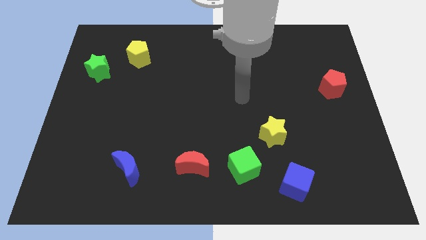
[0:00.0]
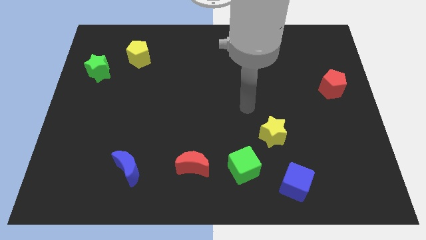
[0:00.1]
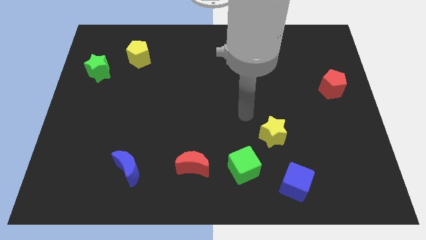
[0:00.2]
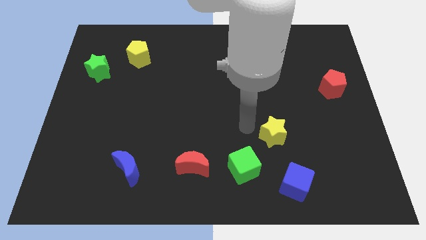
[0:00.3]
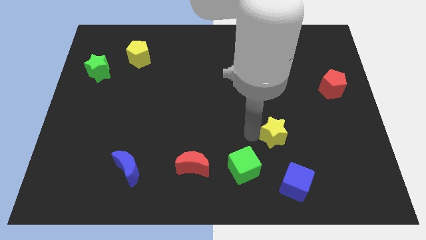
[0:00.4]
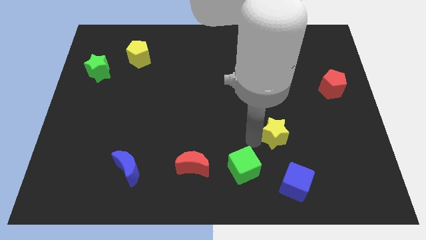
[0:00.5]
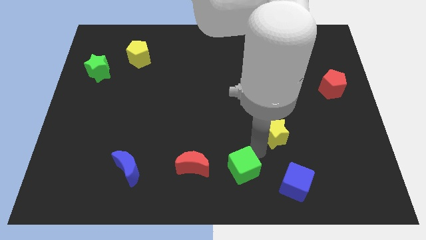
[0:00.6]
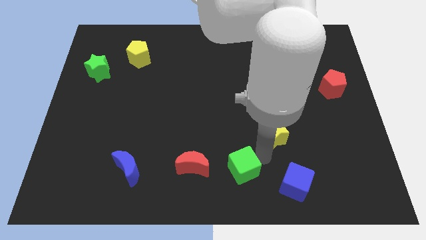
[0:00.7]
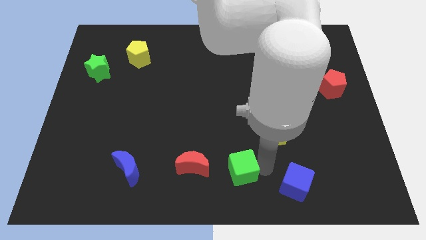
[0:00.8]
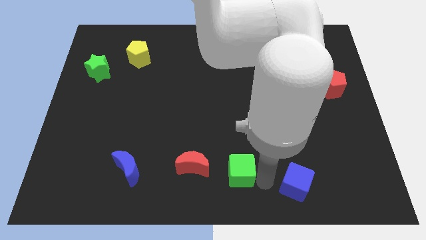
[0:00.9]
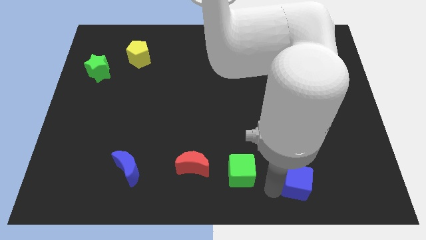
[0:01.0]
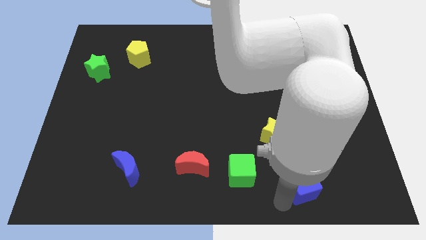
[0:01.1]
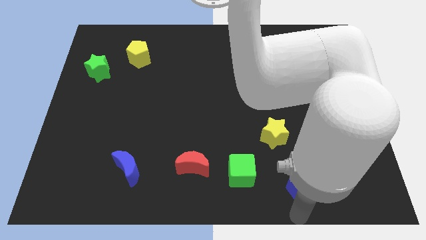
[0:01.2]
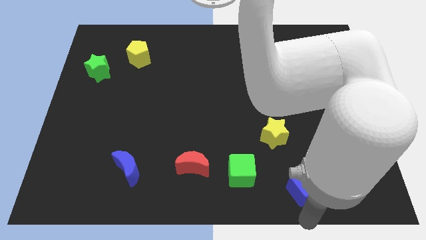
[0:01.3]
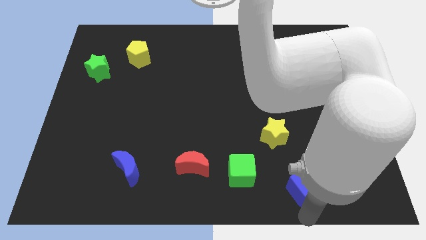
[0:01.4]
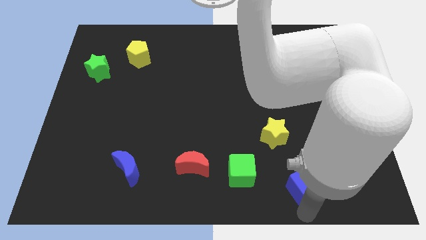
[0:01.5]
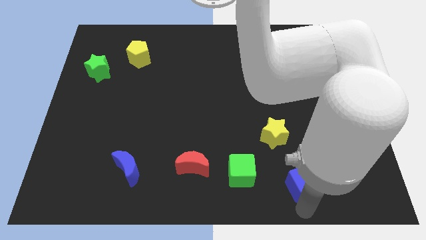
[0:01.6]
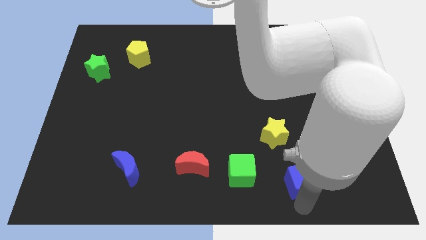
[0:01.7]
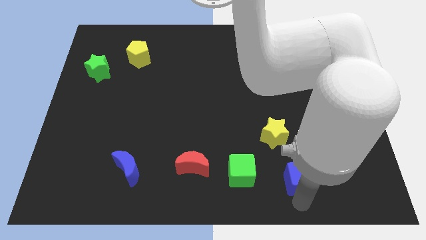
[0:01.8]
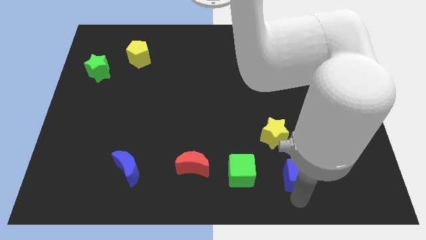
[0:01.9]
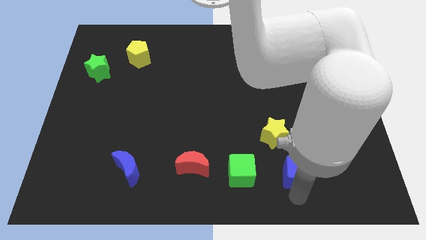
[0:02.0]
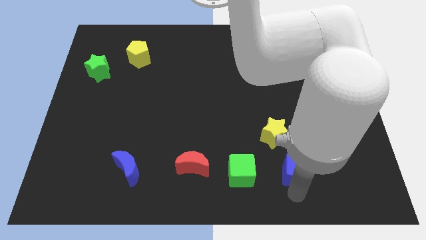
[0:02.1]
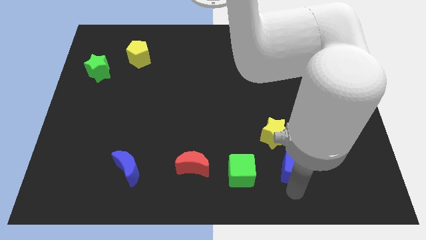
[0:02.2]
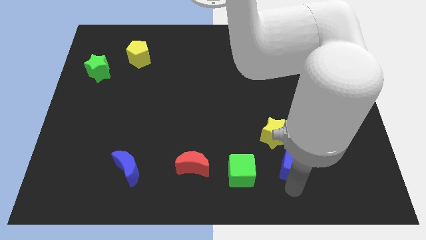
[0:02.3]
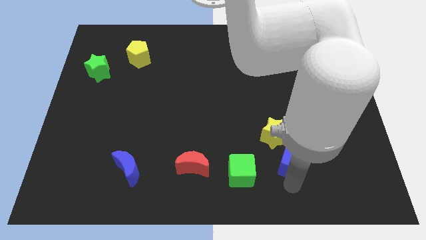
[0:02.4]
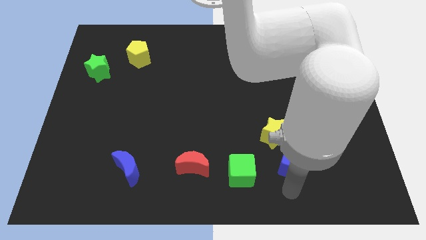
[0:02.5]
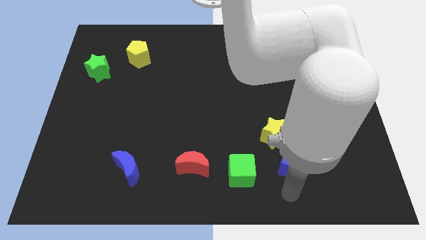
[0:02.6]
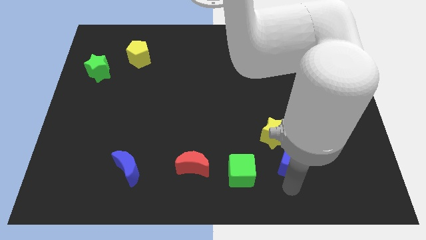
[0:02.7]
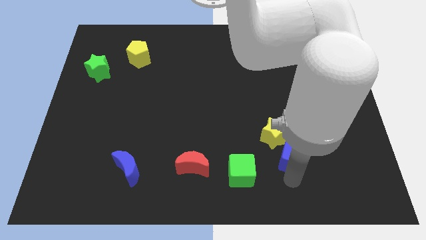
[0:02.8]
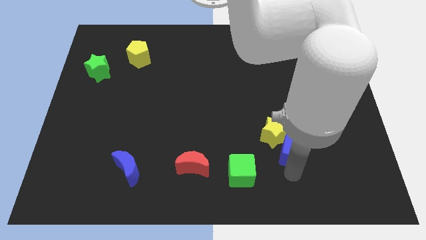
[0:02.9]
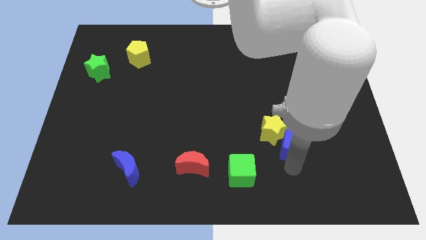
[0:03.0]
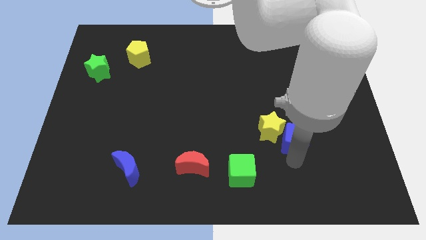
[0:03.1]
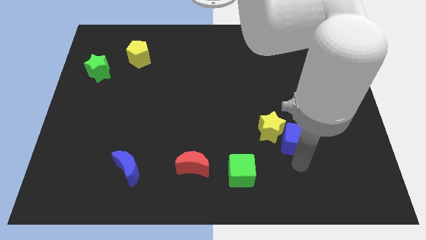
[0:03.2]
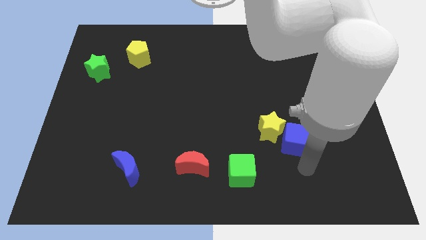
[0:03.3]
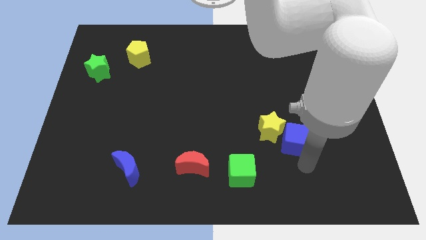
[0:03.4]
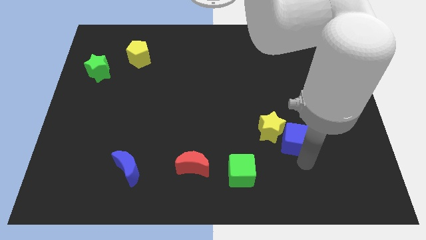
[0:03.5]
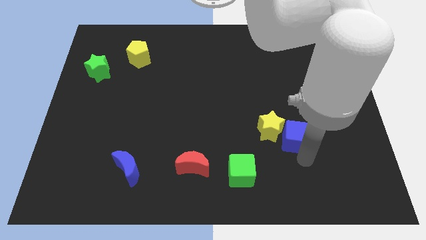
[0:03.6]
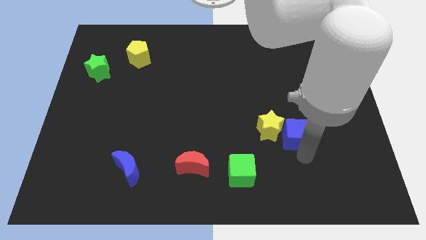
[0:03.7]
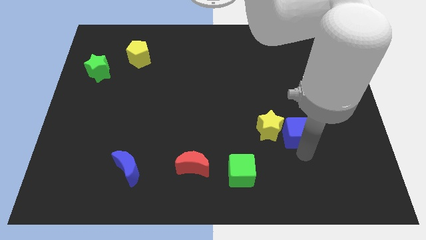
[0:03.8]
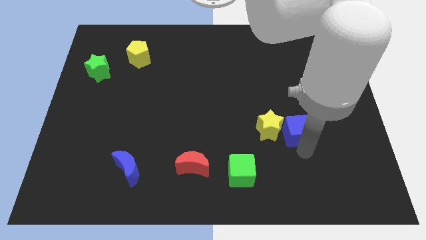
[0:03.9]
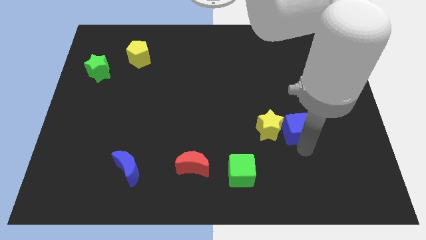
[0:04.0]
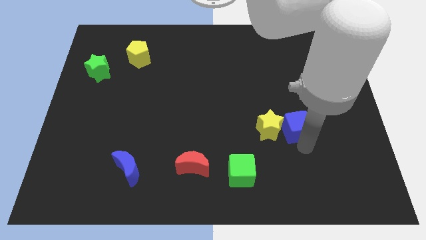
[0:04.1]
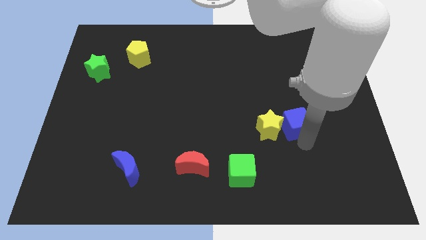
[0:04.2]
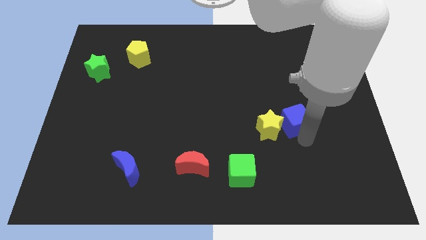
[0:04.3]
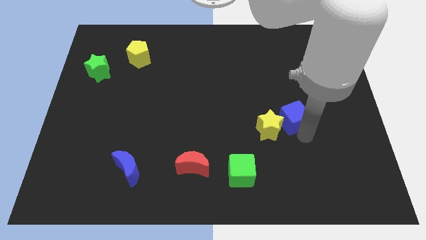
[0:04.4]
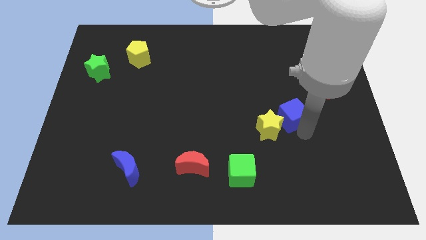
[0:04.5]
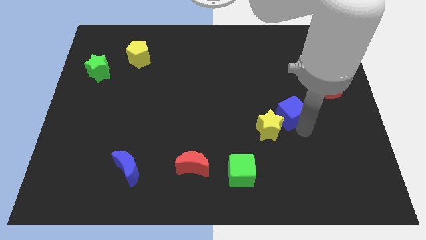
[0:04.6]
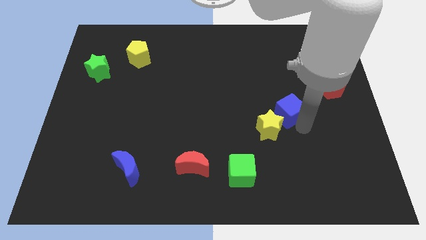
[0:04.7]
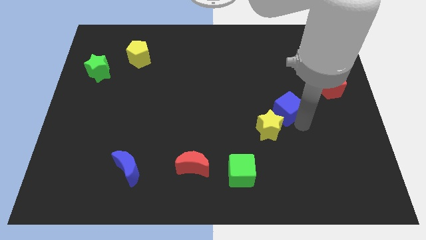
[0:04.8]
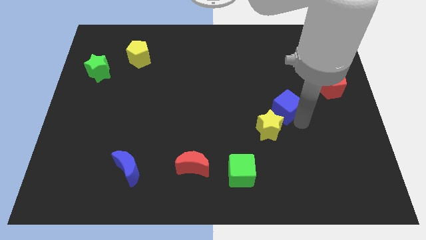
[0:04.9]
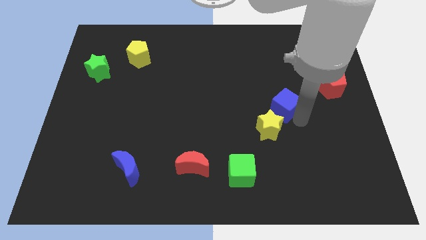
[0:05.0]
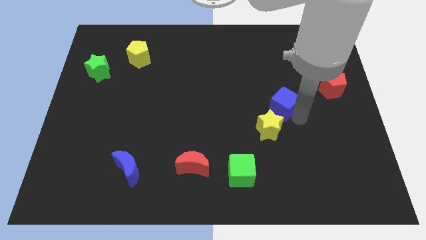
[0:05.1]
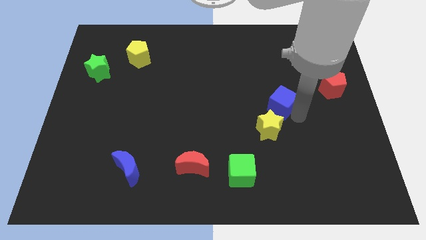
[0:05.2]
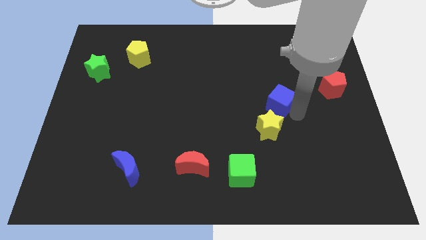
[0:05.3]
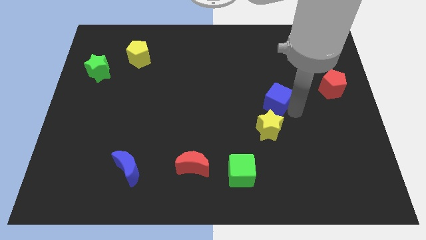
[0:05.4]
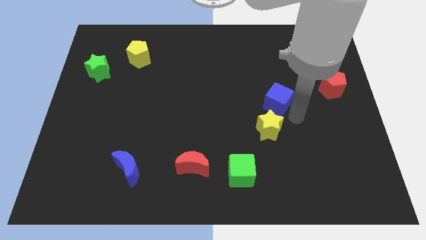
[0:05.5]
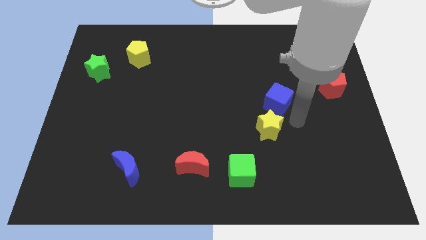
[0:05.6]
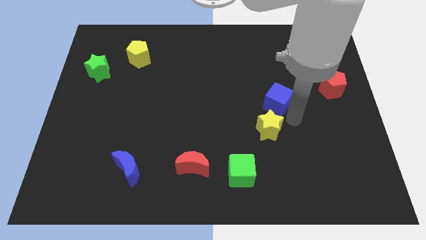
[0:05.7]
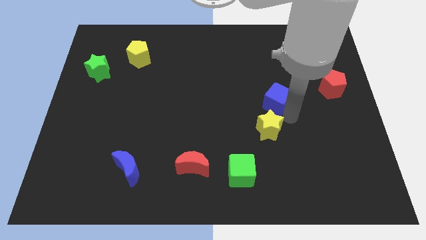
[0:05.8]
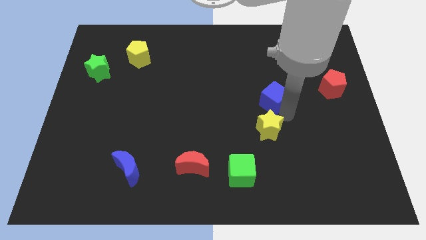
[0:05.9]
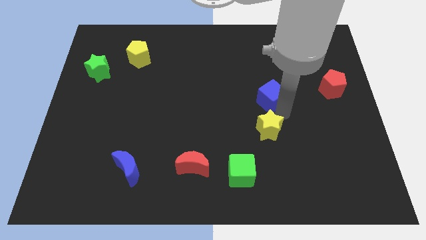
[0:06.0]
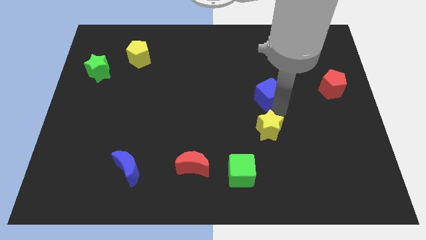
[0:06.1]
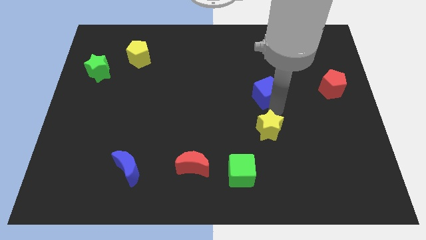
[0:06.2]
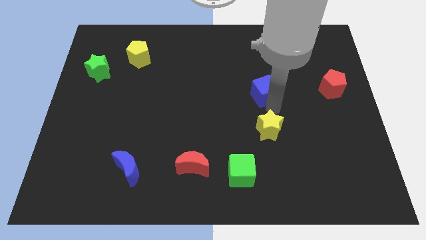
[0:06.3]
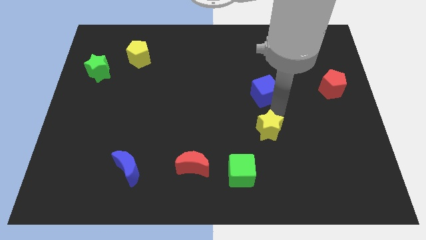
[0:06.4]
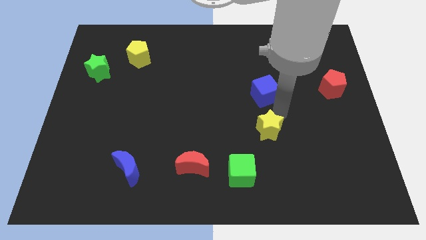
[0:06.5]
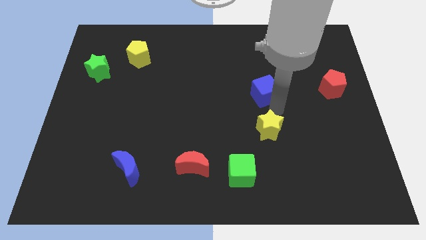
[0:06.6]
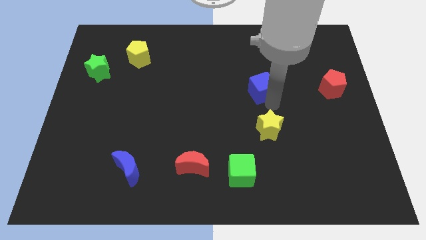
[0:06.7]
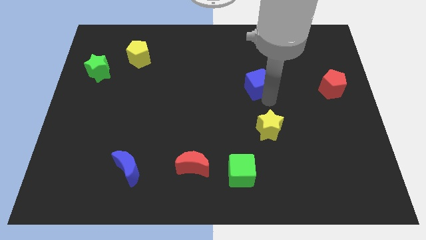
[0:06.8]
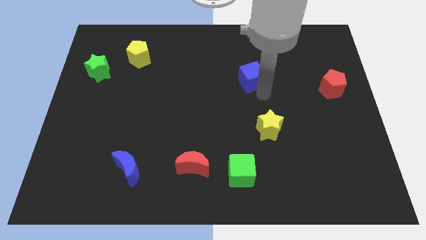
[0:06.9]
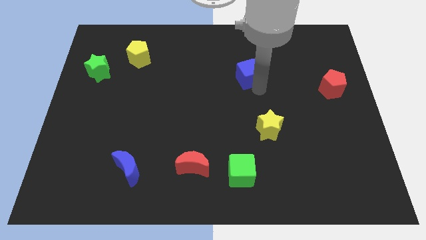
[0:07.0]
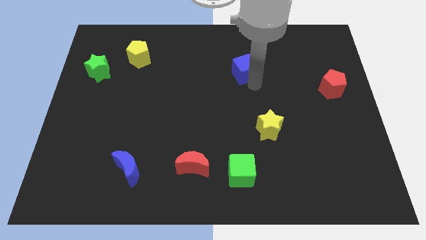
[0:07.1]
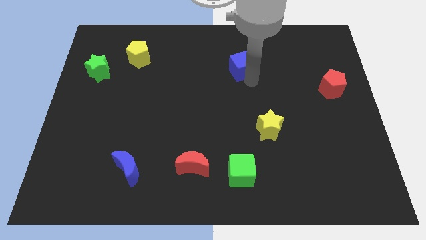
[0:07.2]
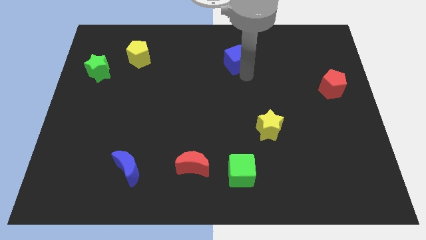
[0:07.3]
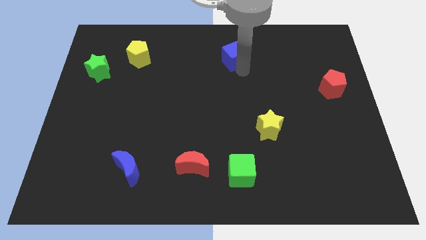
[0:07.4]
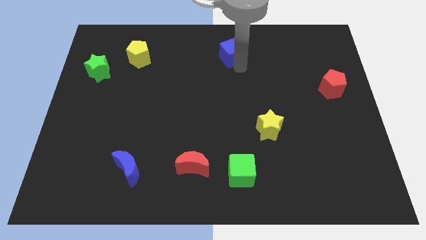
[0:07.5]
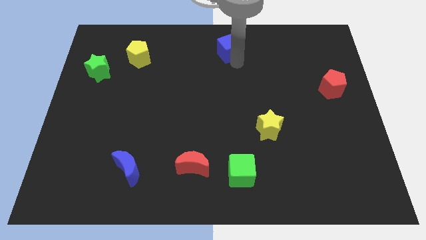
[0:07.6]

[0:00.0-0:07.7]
slide the blue cube to the top
